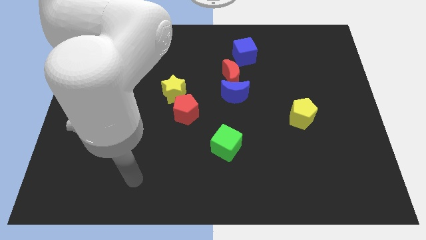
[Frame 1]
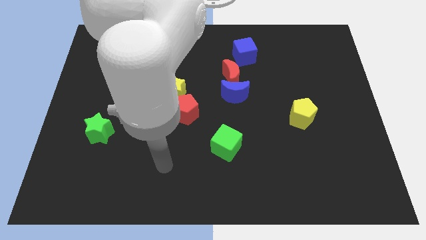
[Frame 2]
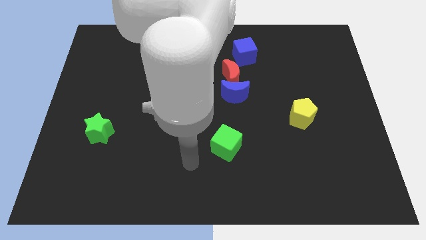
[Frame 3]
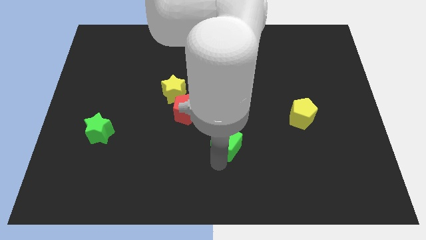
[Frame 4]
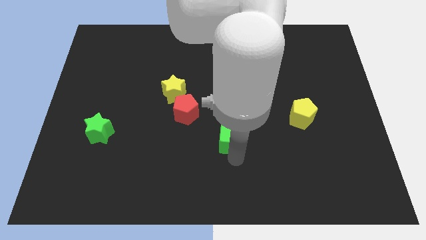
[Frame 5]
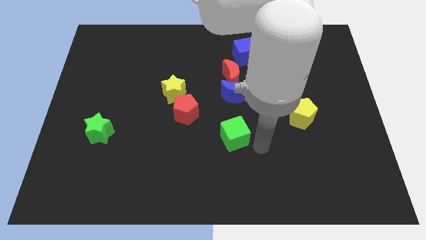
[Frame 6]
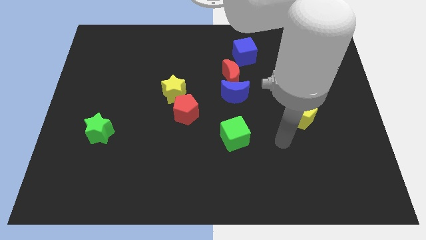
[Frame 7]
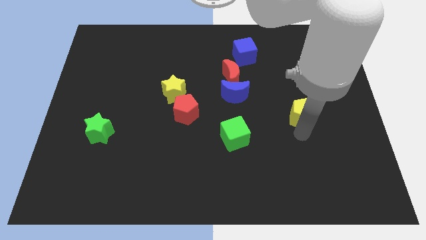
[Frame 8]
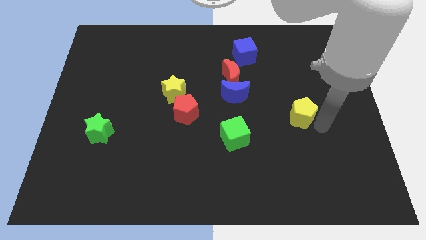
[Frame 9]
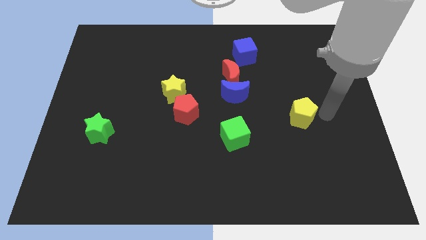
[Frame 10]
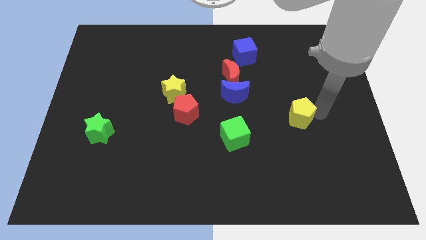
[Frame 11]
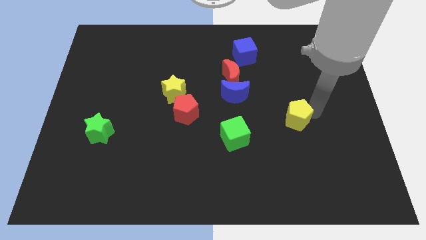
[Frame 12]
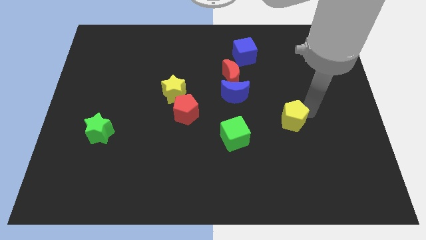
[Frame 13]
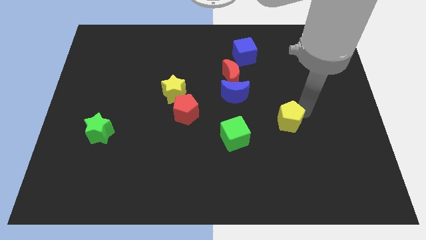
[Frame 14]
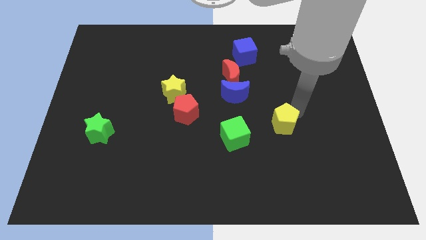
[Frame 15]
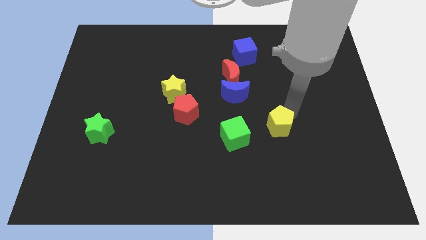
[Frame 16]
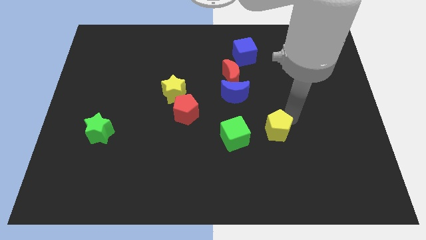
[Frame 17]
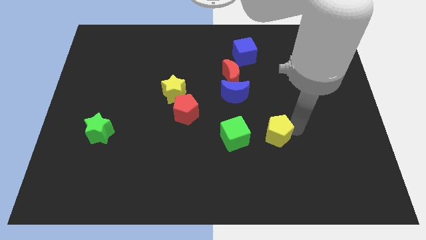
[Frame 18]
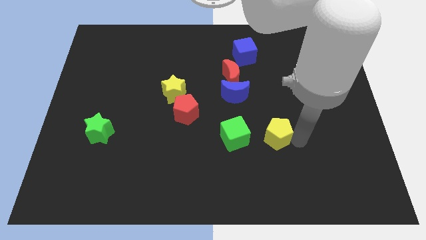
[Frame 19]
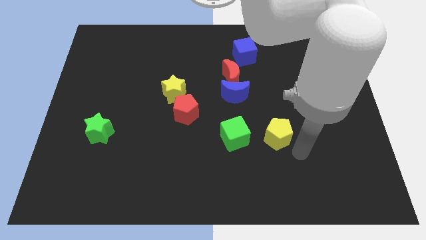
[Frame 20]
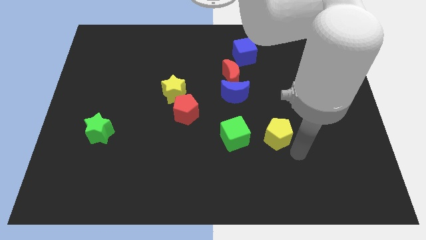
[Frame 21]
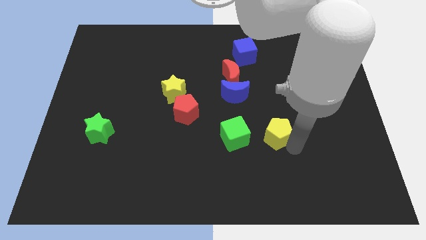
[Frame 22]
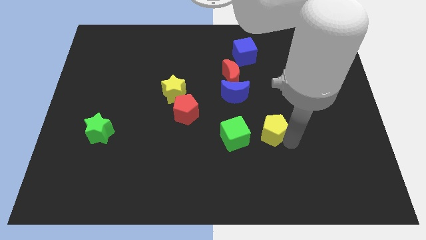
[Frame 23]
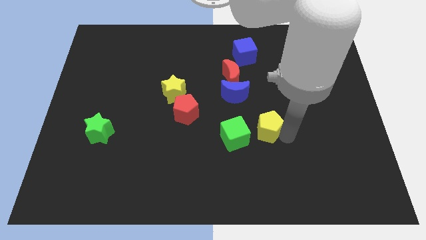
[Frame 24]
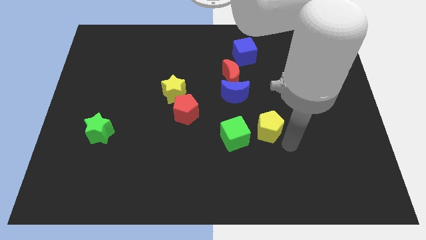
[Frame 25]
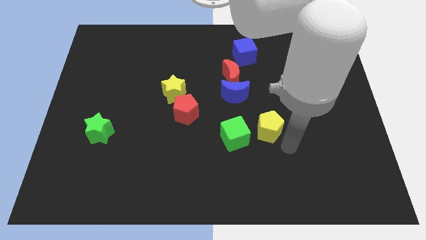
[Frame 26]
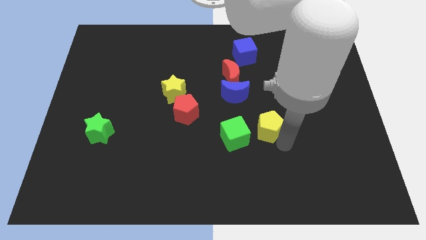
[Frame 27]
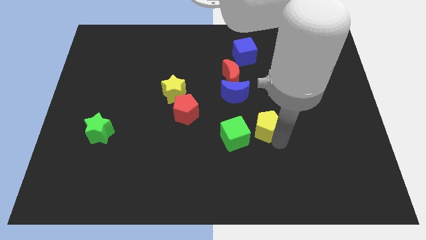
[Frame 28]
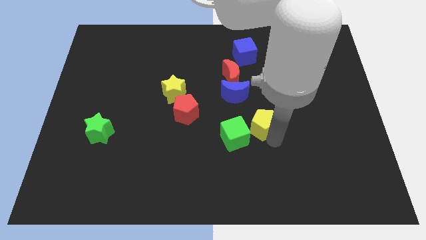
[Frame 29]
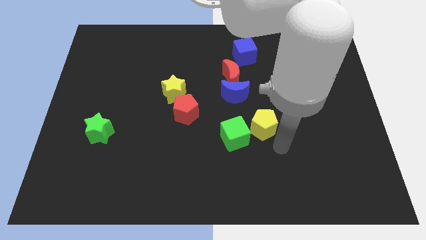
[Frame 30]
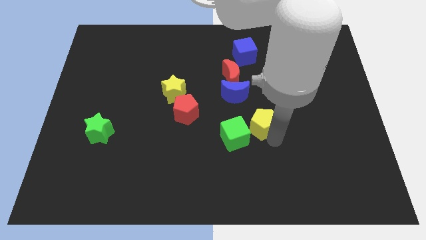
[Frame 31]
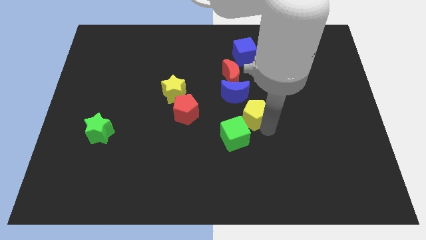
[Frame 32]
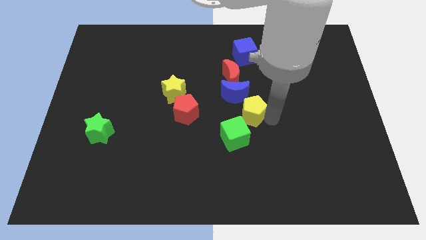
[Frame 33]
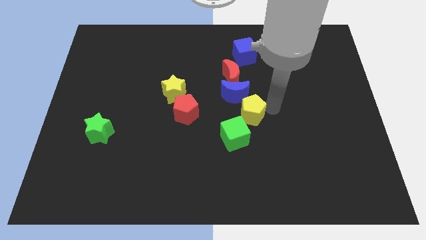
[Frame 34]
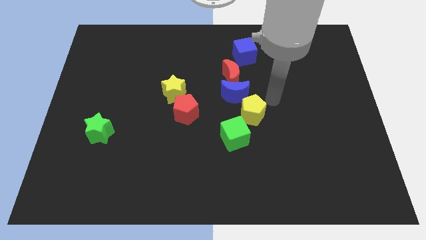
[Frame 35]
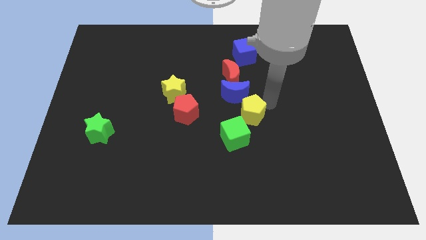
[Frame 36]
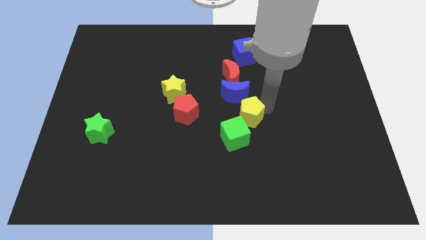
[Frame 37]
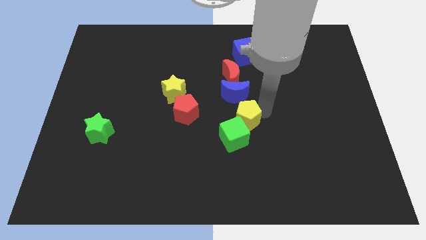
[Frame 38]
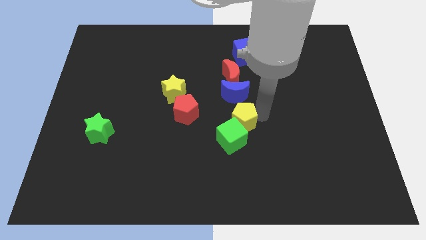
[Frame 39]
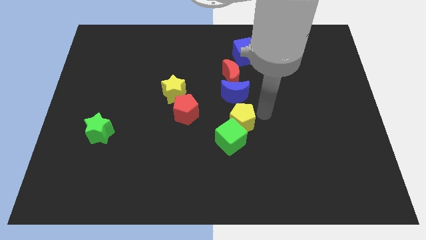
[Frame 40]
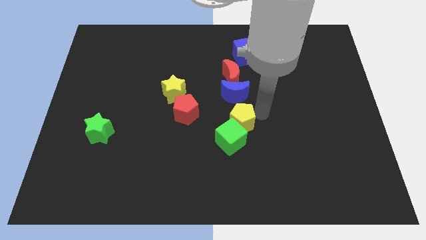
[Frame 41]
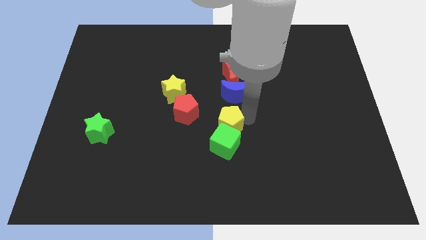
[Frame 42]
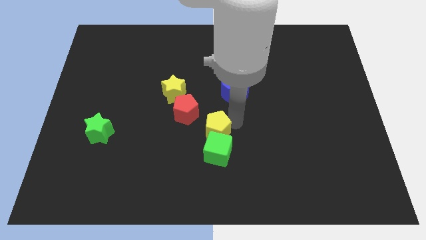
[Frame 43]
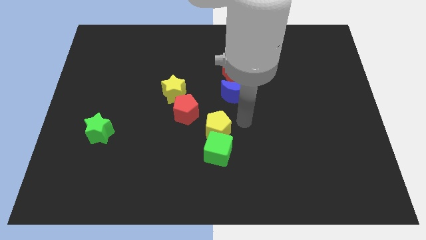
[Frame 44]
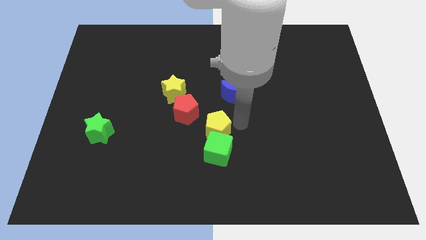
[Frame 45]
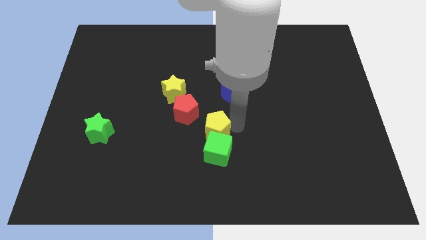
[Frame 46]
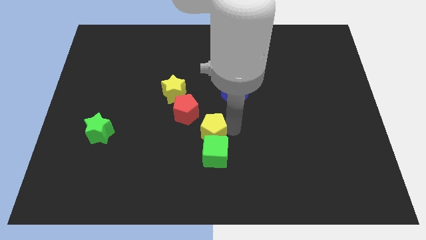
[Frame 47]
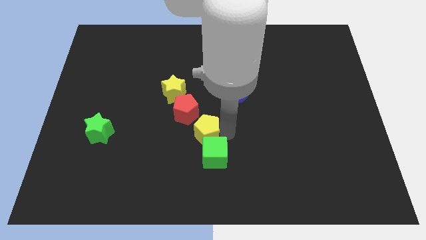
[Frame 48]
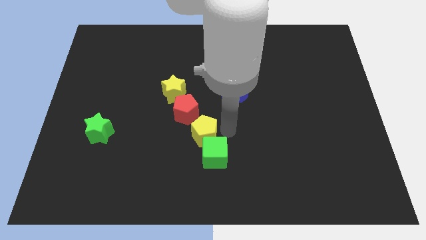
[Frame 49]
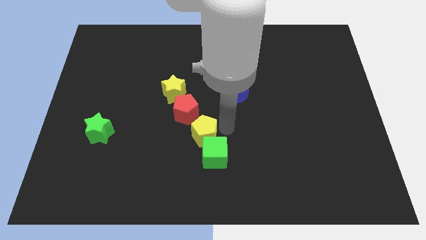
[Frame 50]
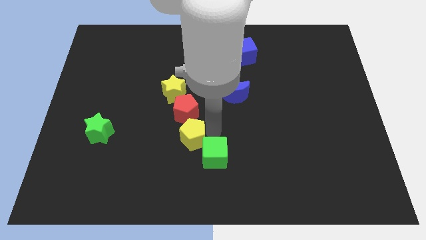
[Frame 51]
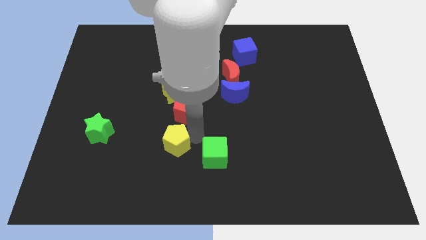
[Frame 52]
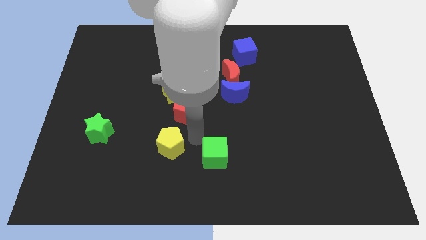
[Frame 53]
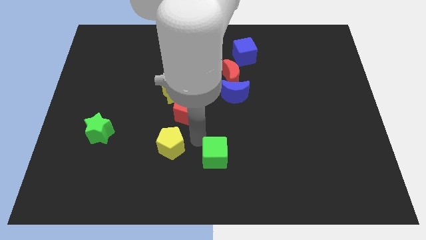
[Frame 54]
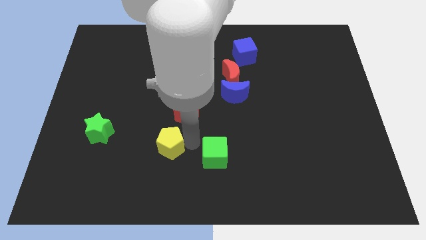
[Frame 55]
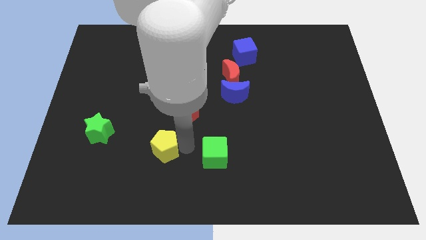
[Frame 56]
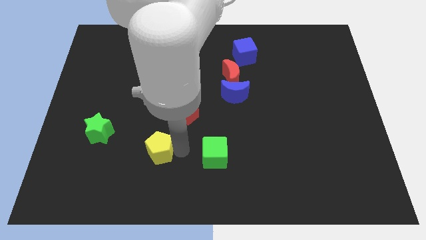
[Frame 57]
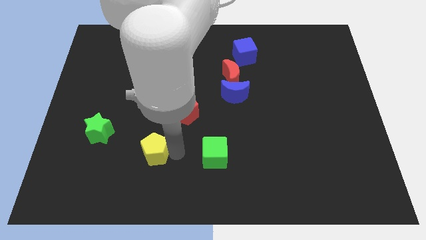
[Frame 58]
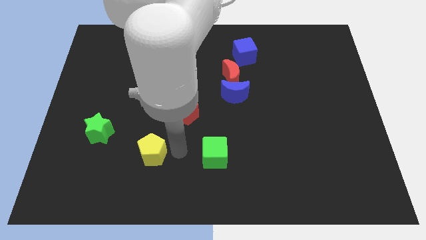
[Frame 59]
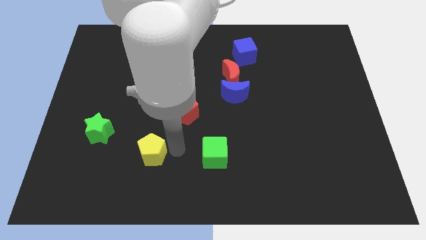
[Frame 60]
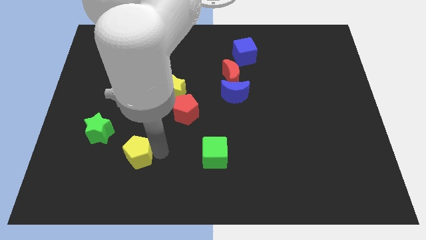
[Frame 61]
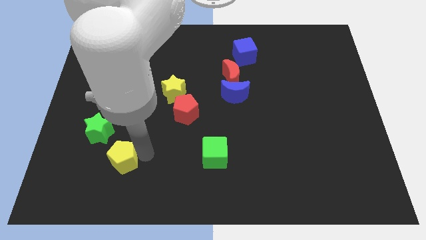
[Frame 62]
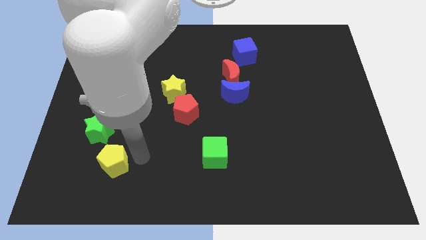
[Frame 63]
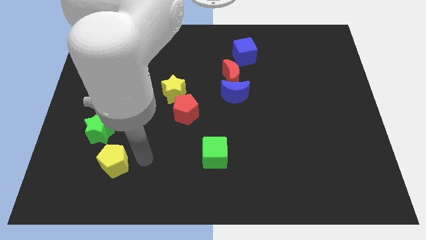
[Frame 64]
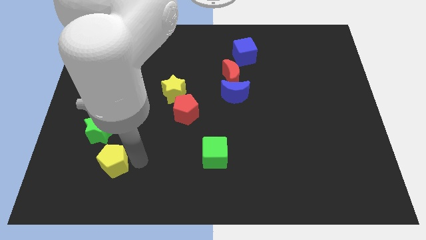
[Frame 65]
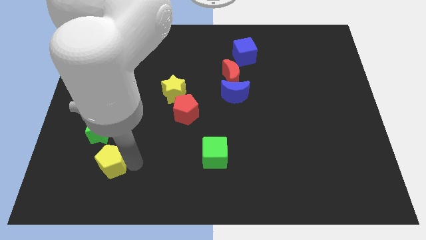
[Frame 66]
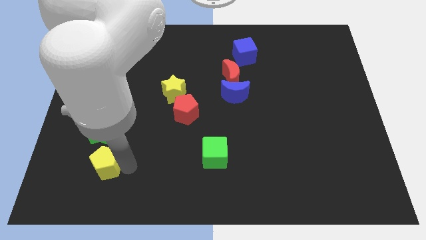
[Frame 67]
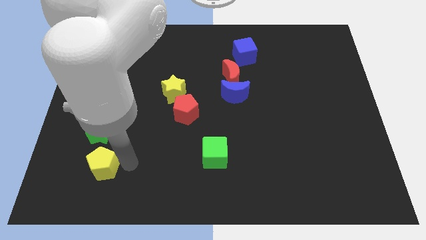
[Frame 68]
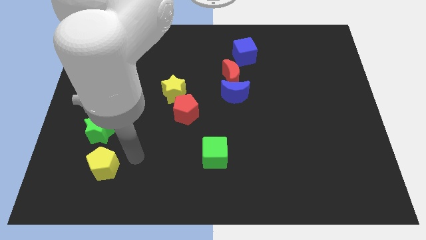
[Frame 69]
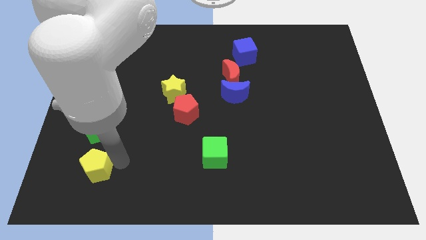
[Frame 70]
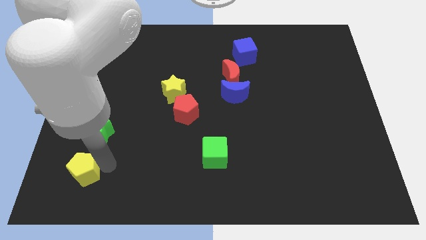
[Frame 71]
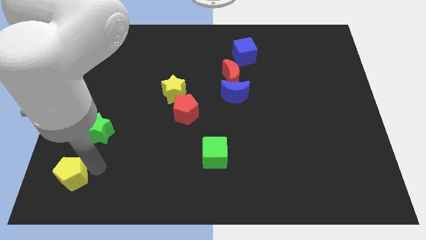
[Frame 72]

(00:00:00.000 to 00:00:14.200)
put the yellow pentagon to the bottom left
